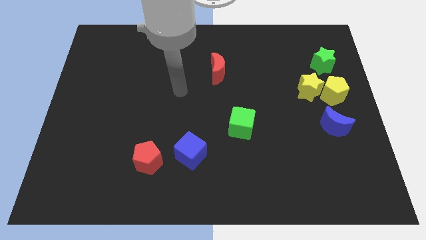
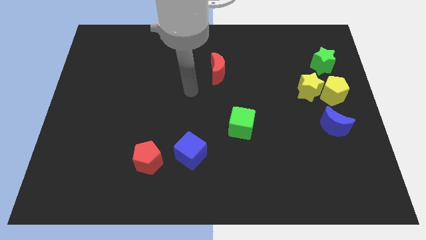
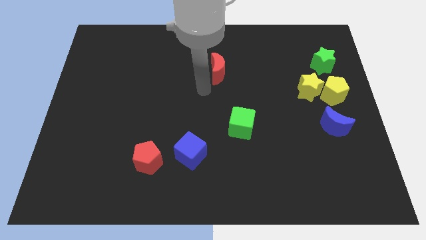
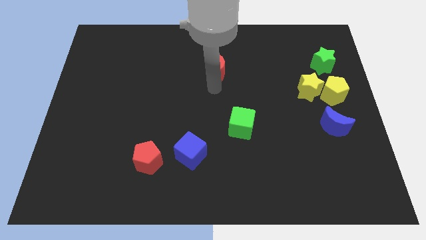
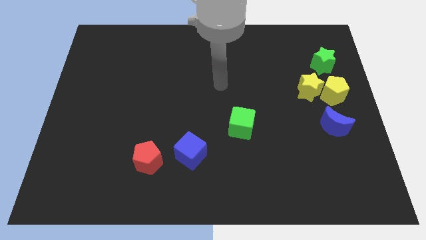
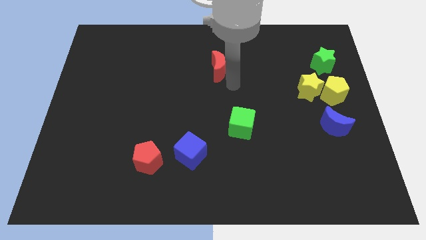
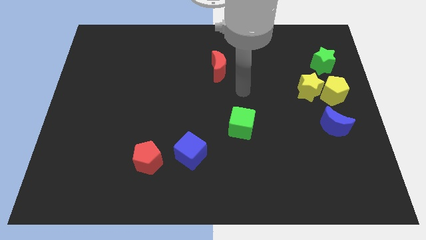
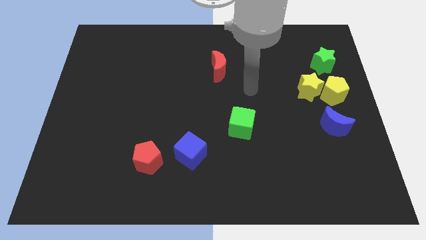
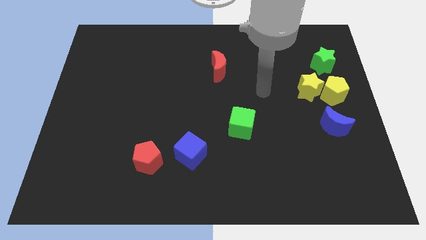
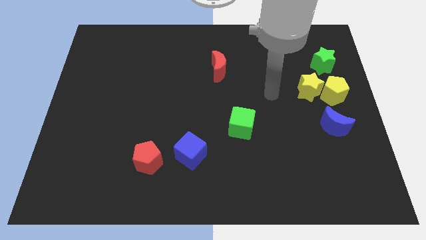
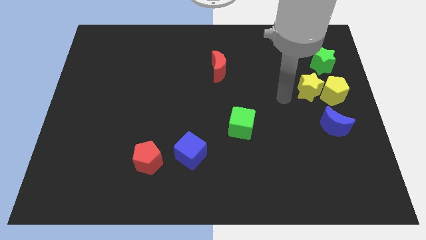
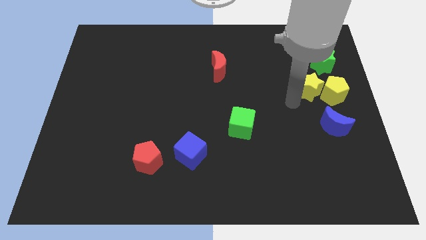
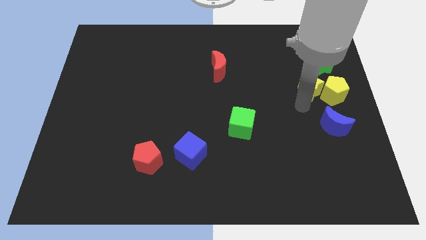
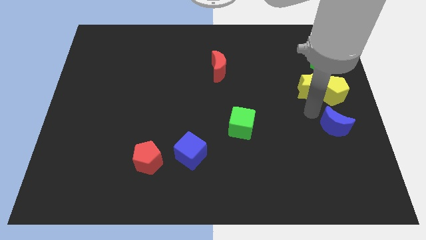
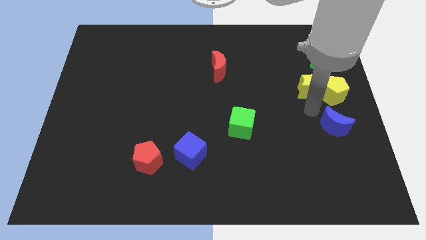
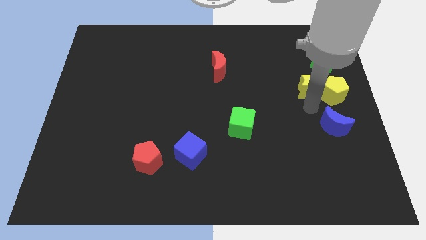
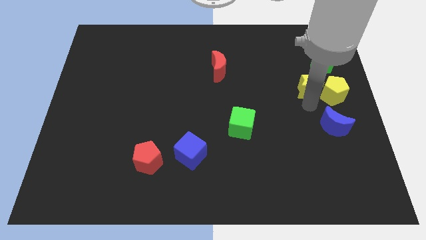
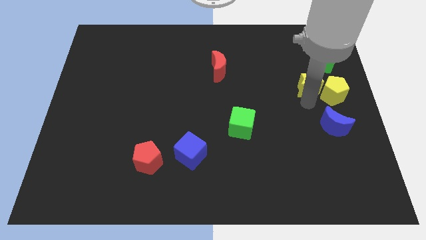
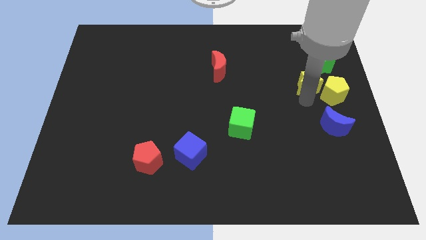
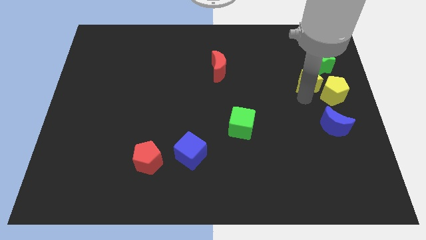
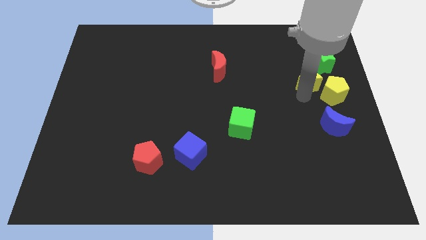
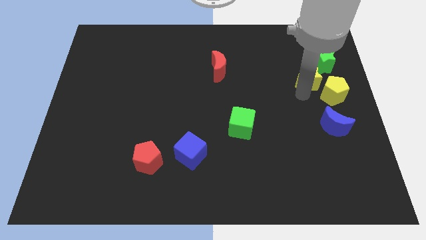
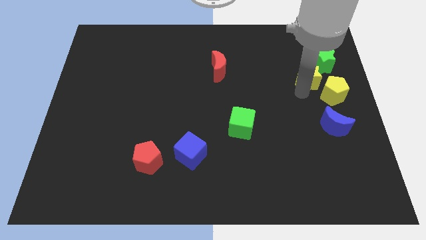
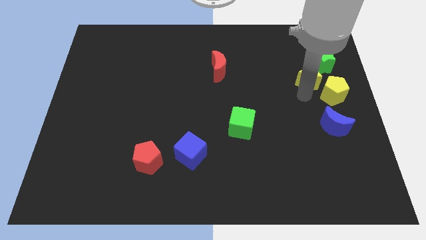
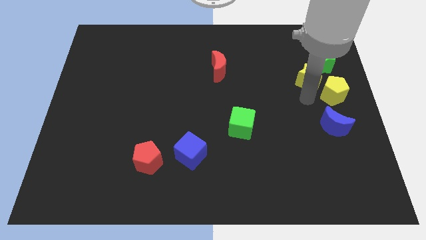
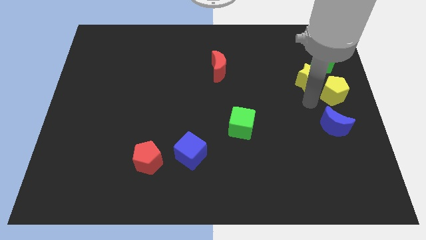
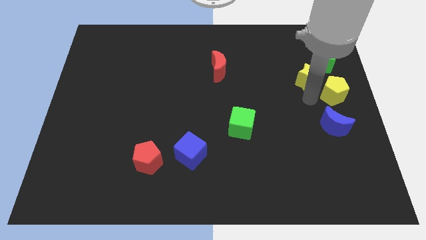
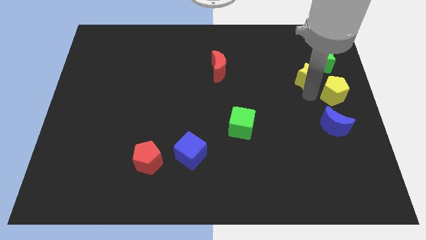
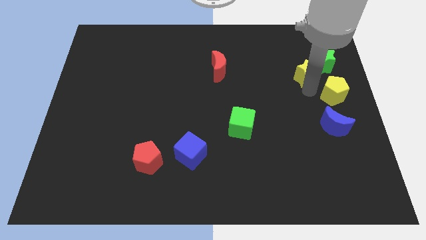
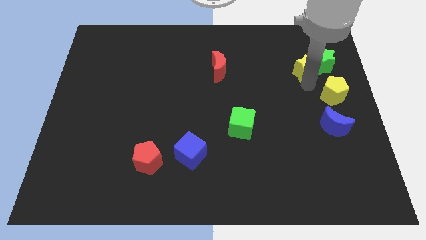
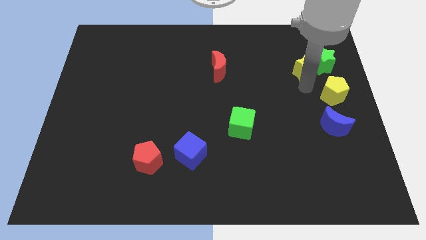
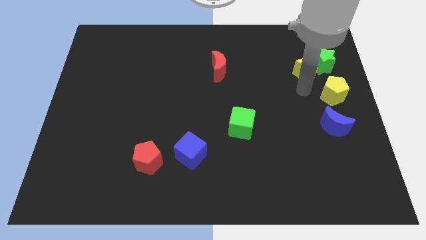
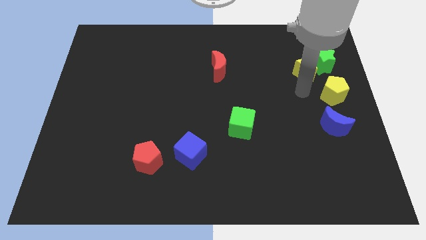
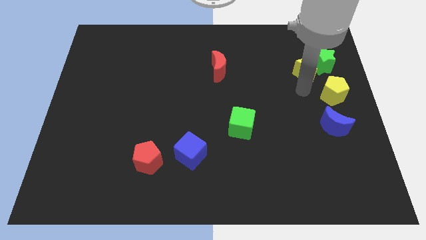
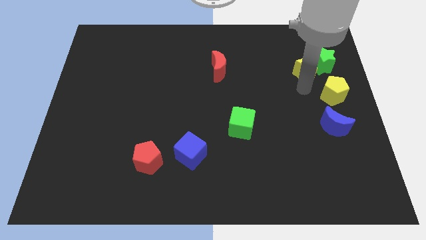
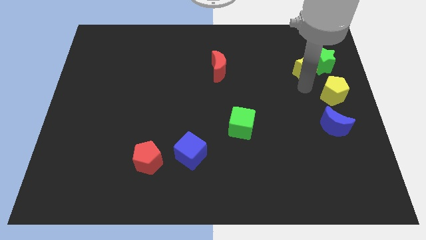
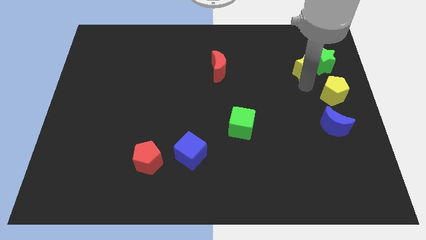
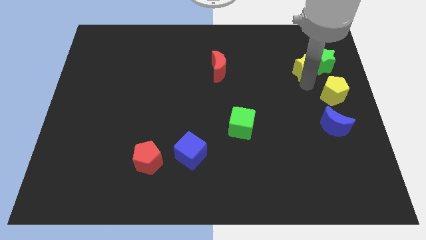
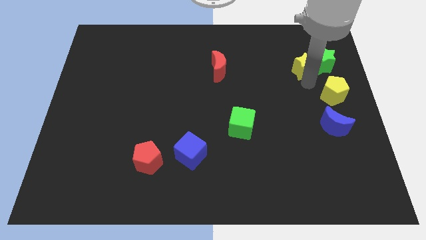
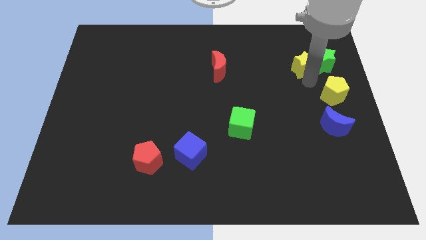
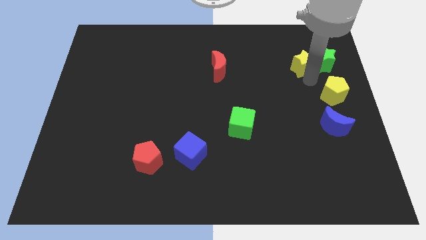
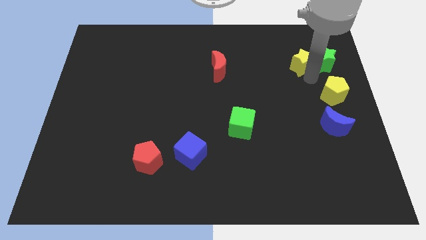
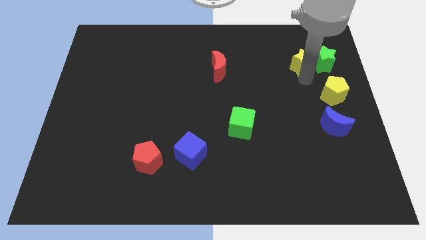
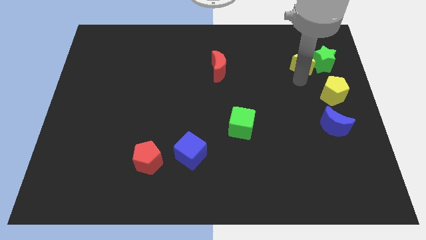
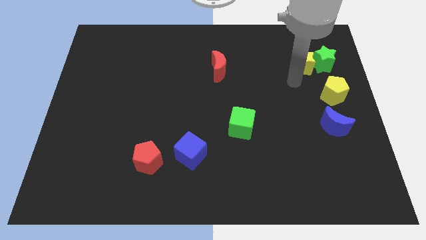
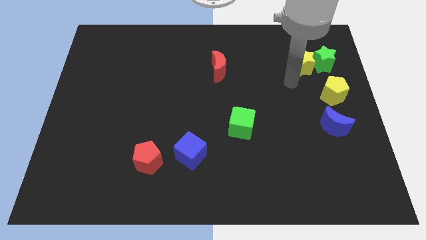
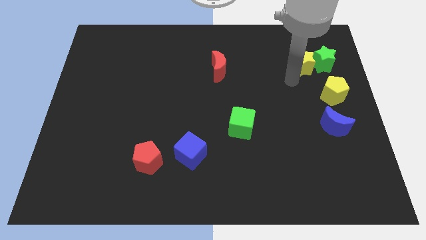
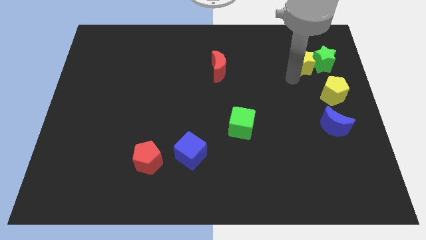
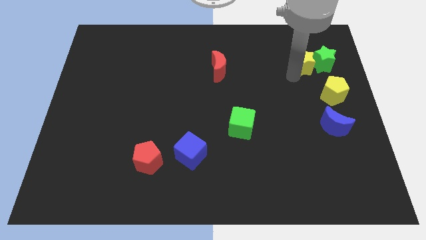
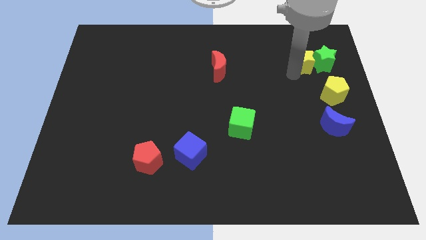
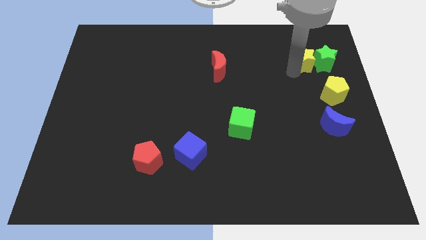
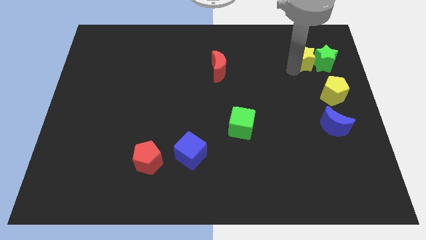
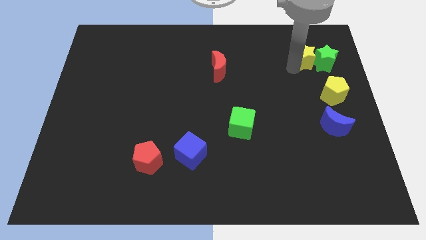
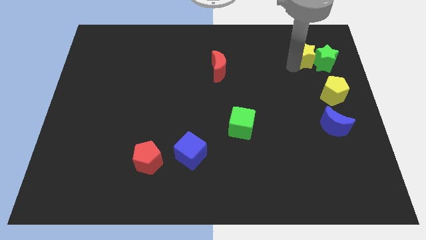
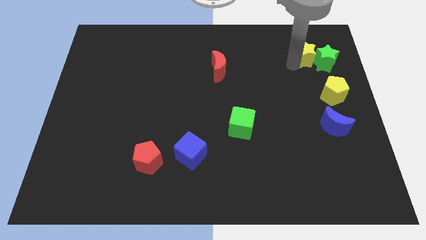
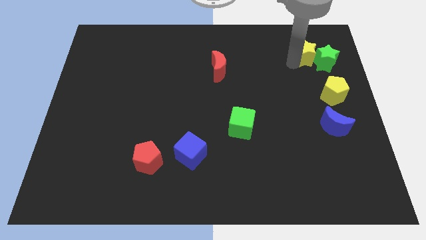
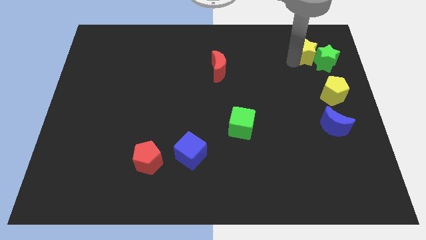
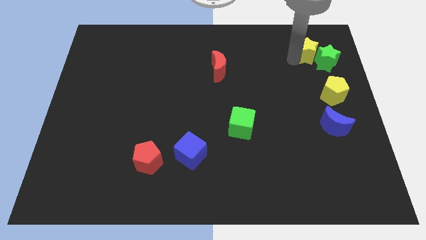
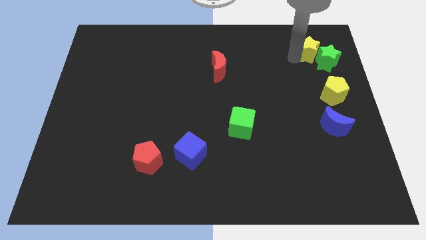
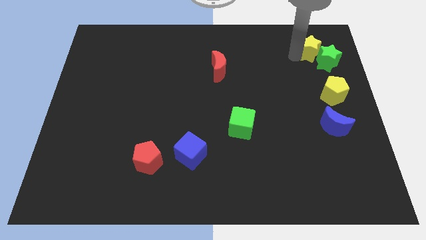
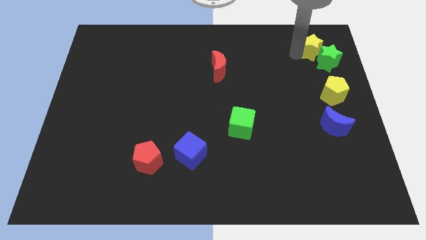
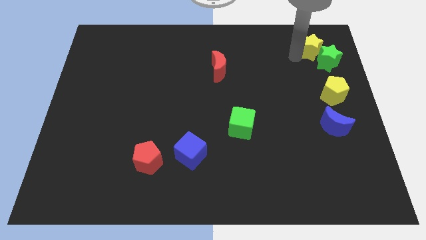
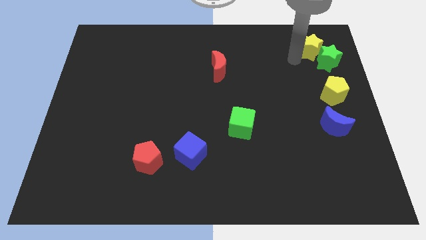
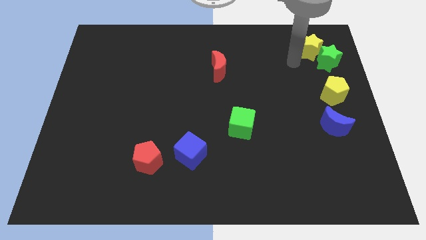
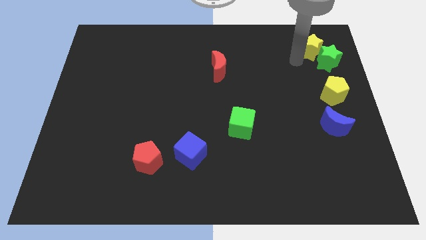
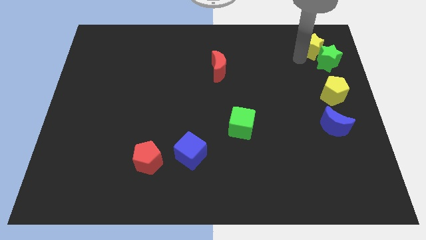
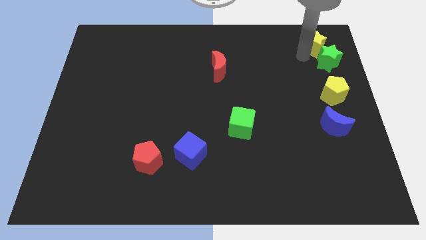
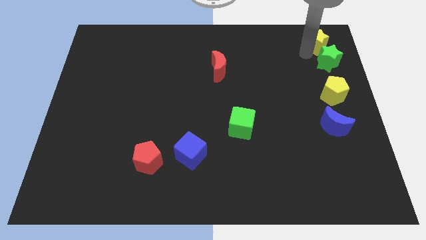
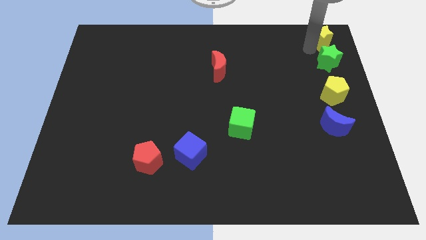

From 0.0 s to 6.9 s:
put the yellow star to the top right of the board
